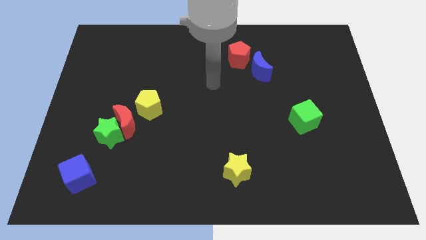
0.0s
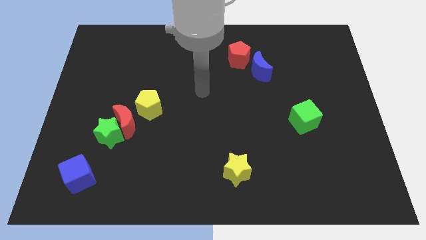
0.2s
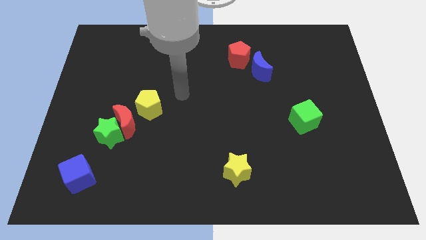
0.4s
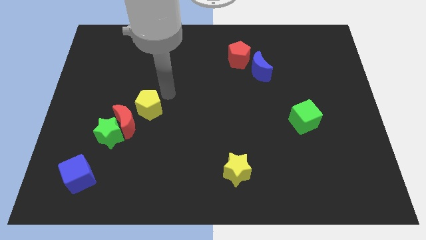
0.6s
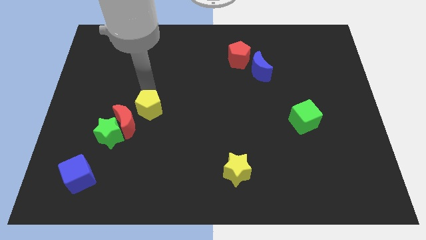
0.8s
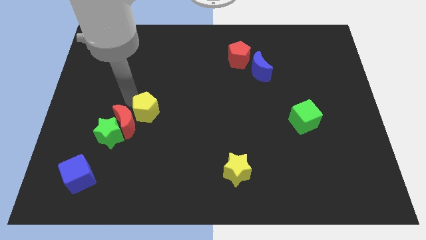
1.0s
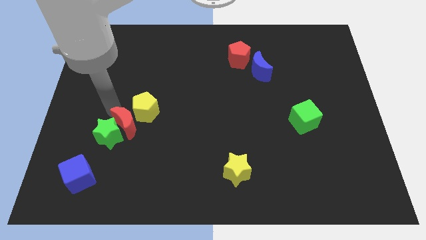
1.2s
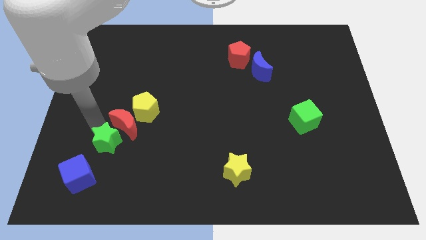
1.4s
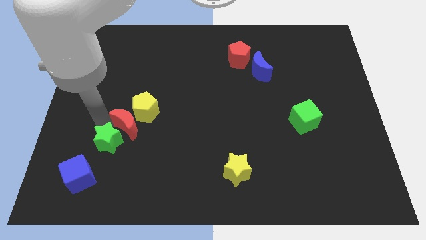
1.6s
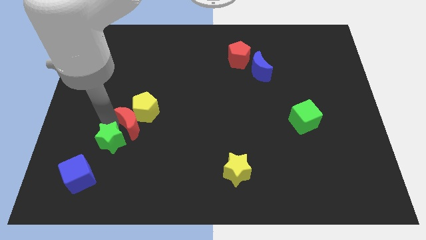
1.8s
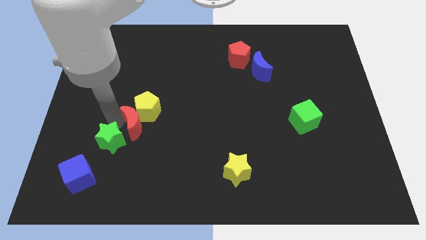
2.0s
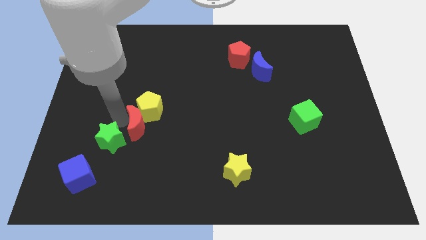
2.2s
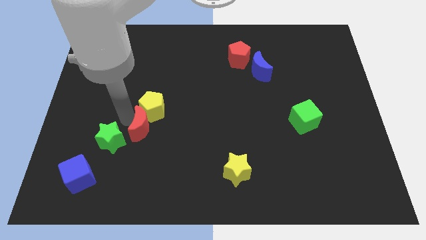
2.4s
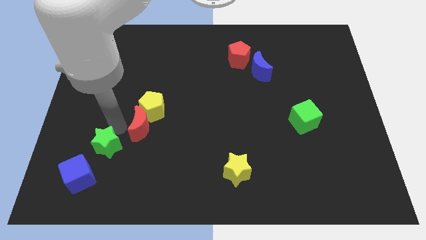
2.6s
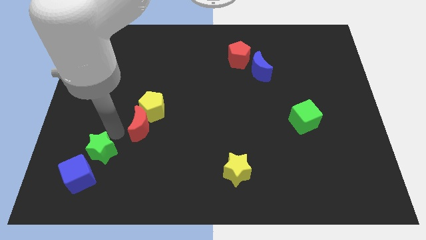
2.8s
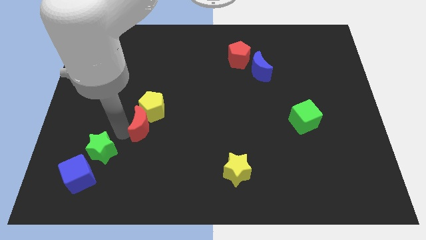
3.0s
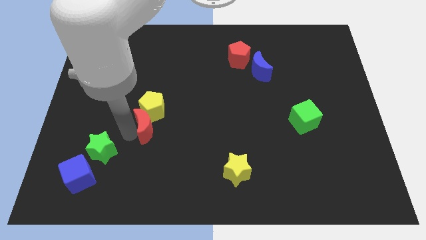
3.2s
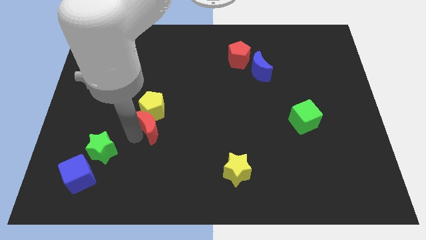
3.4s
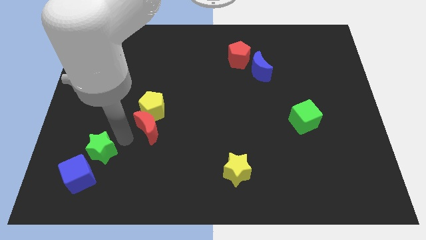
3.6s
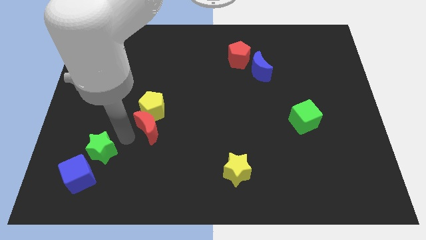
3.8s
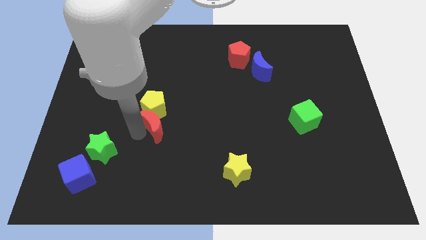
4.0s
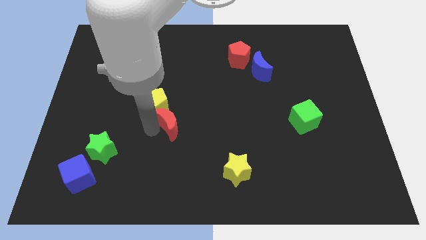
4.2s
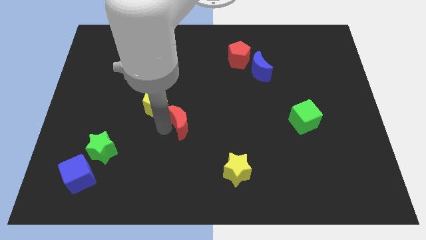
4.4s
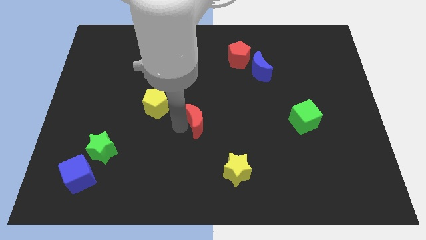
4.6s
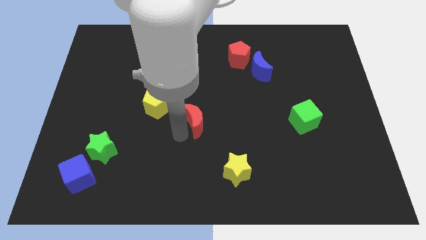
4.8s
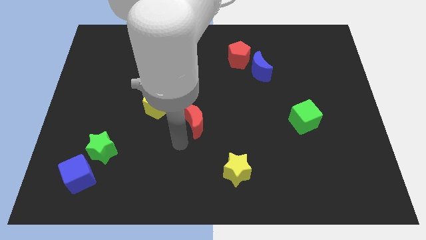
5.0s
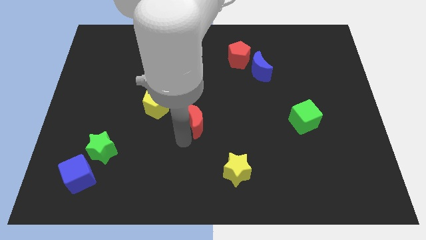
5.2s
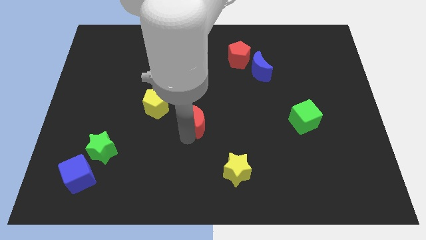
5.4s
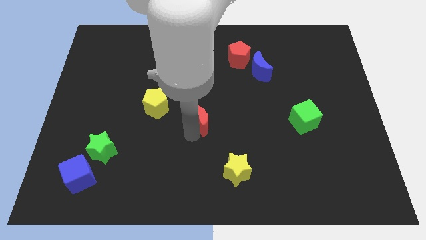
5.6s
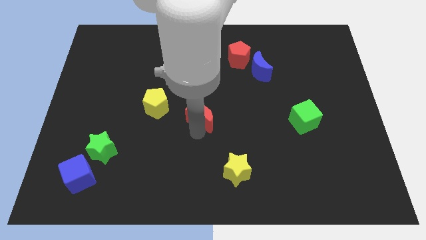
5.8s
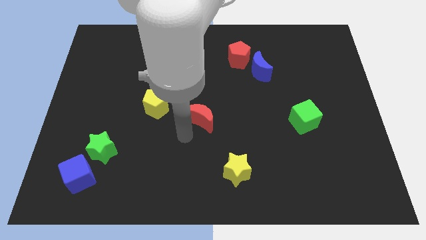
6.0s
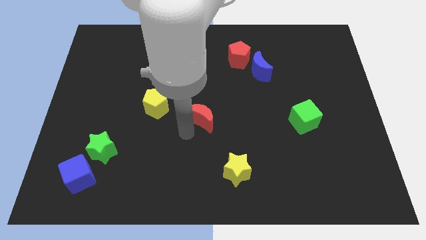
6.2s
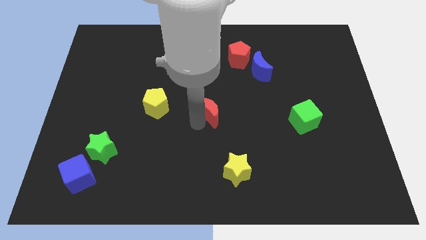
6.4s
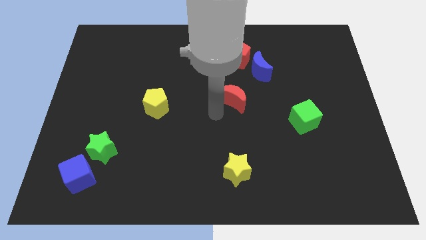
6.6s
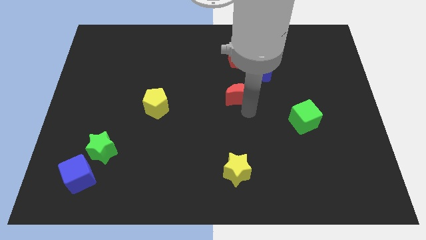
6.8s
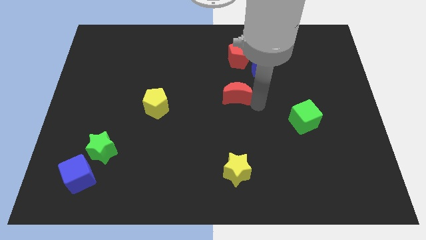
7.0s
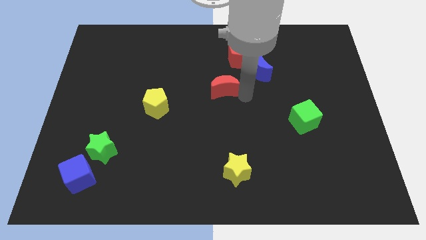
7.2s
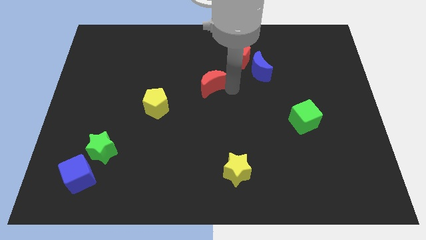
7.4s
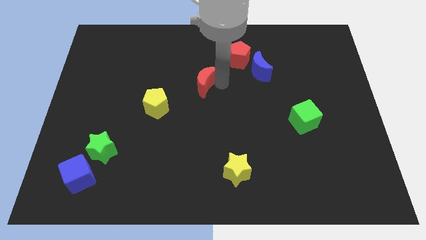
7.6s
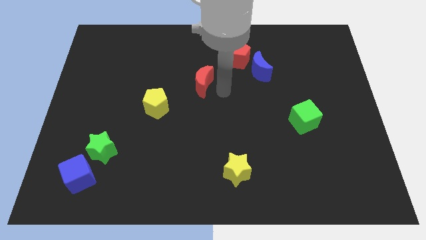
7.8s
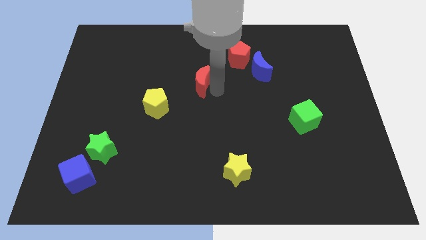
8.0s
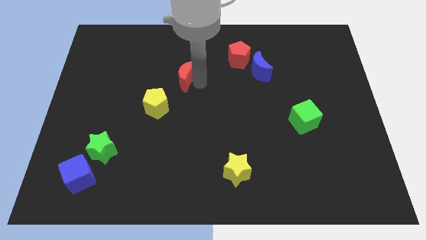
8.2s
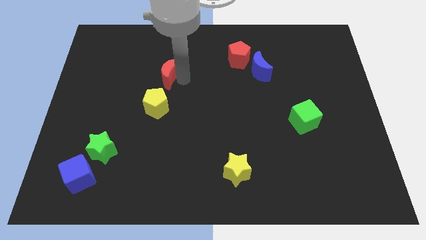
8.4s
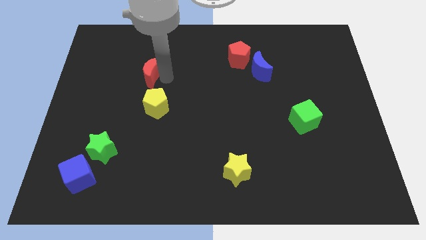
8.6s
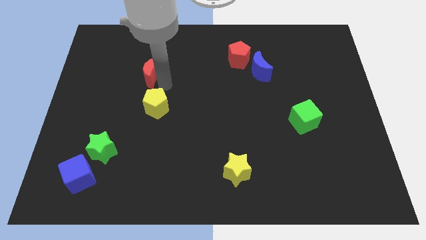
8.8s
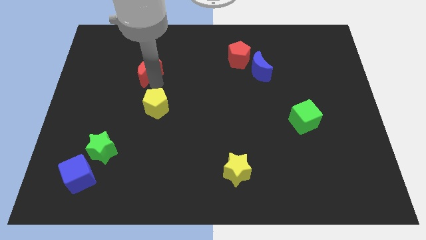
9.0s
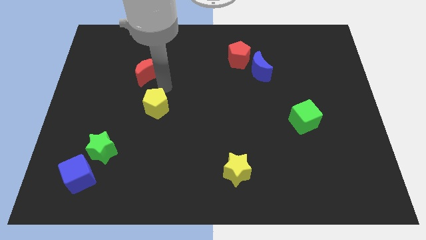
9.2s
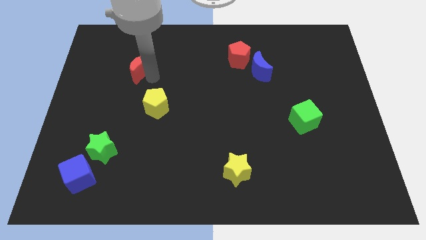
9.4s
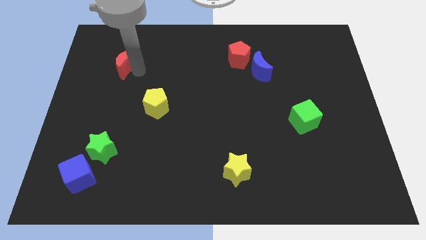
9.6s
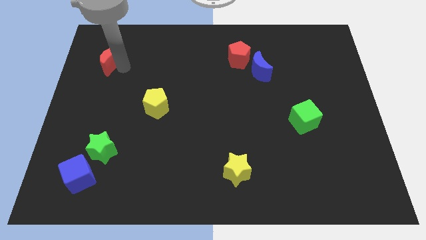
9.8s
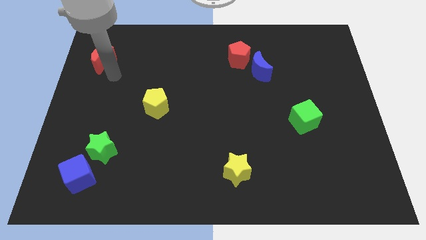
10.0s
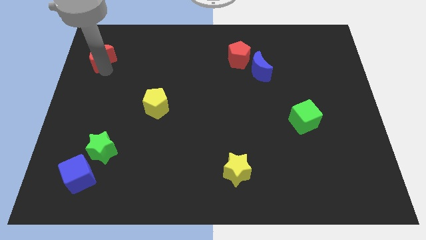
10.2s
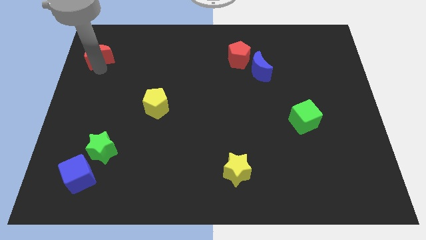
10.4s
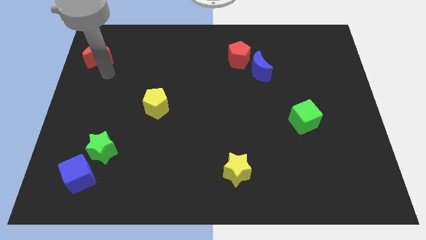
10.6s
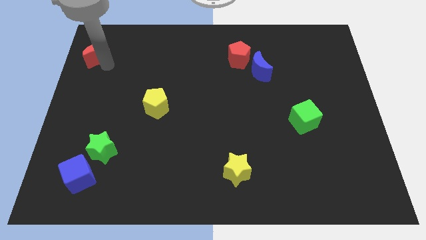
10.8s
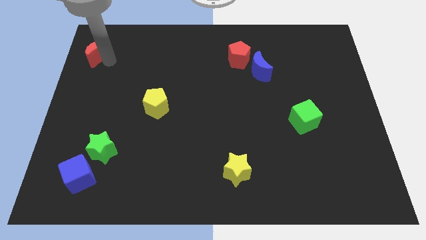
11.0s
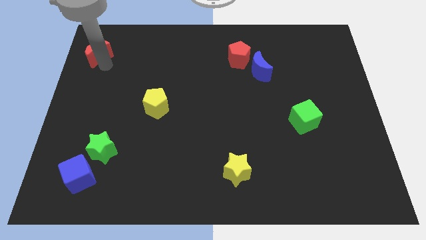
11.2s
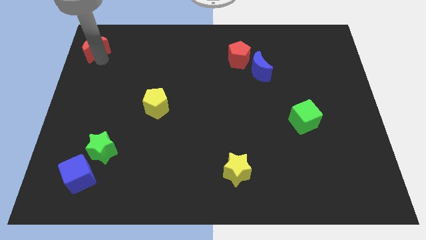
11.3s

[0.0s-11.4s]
put the red moon to the upper left corner
